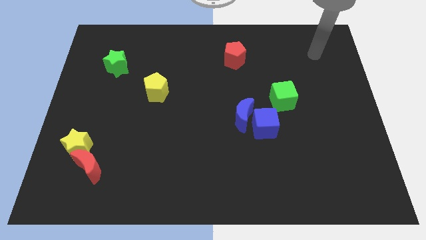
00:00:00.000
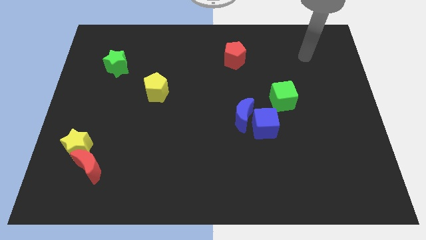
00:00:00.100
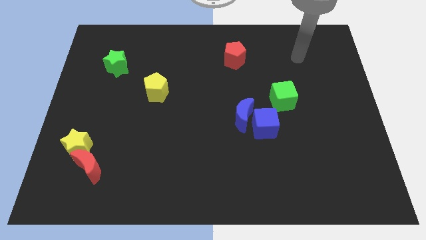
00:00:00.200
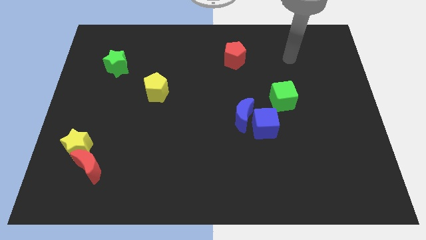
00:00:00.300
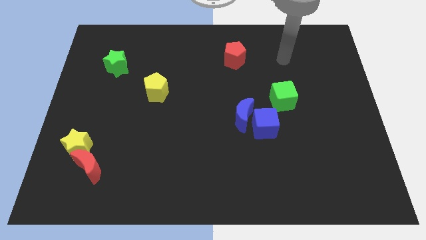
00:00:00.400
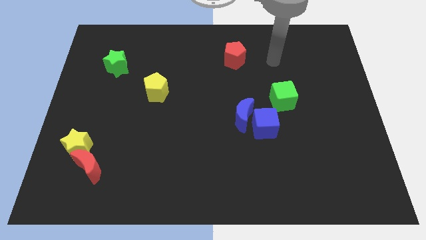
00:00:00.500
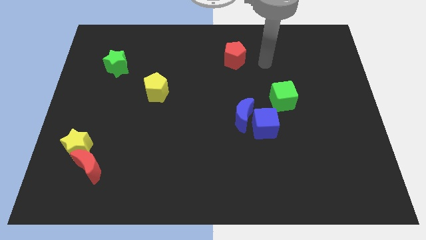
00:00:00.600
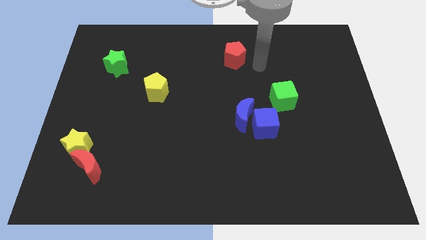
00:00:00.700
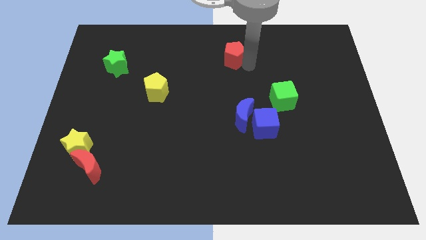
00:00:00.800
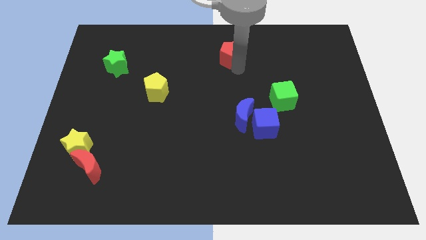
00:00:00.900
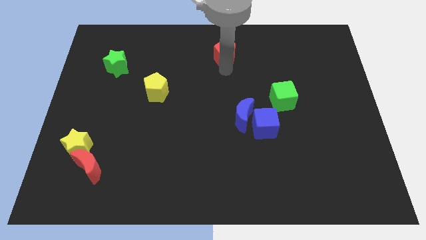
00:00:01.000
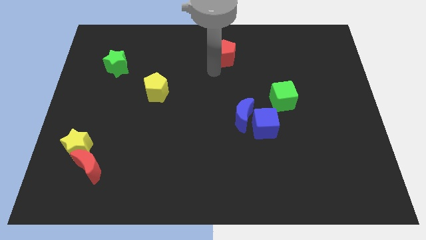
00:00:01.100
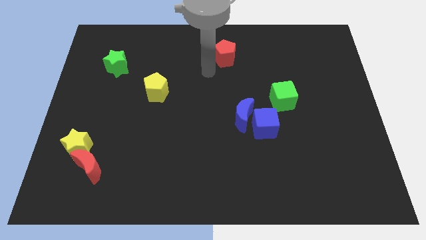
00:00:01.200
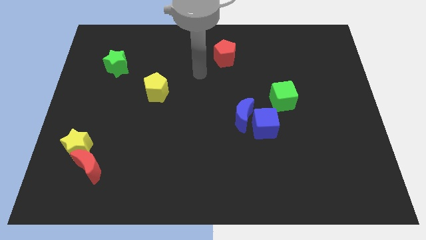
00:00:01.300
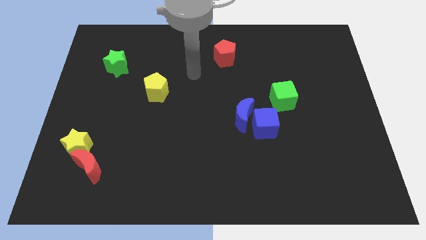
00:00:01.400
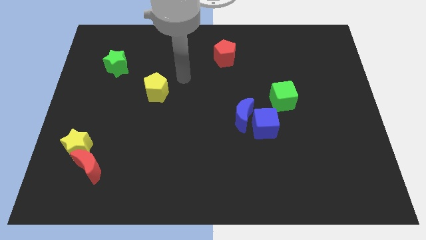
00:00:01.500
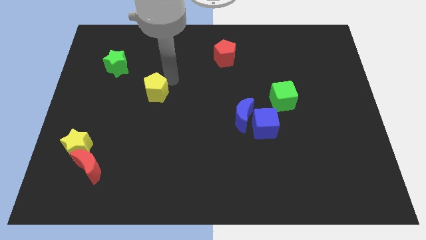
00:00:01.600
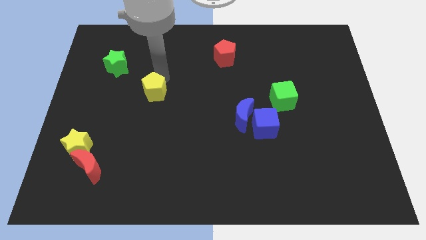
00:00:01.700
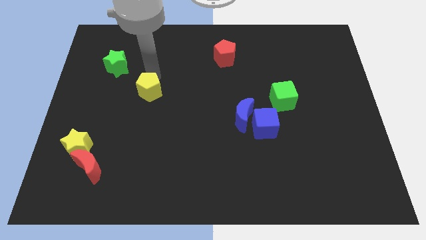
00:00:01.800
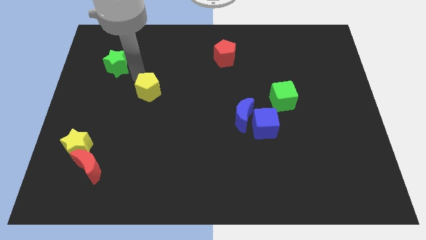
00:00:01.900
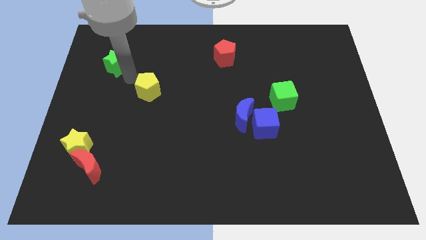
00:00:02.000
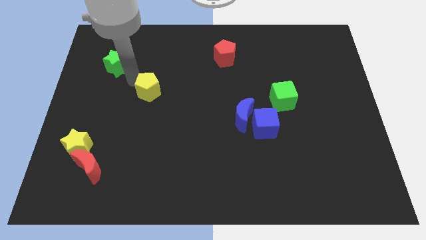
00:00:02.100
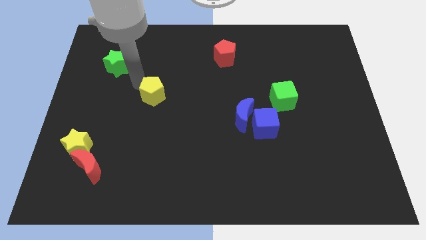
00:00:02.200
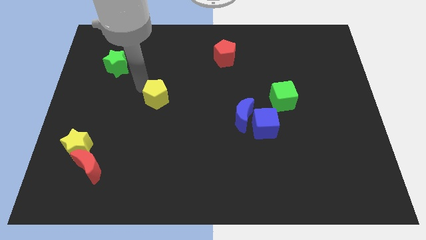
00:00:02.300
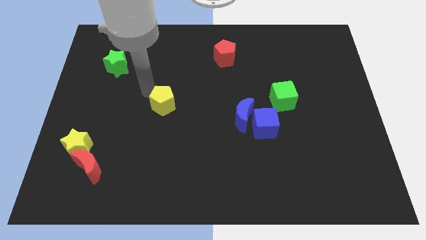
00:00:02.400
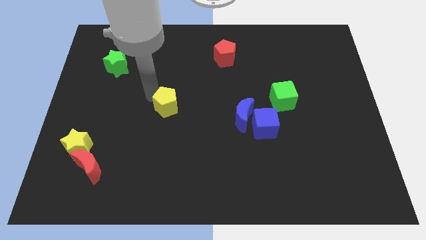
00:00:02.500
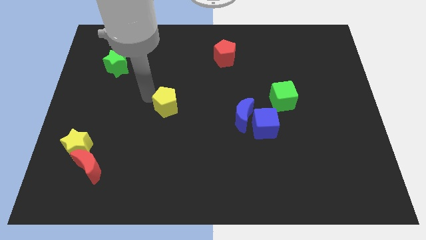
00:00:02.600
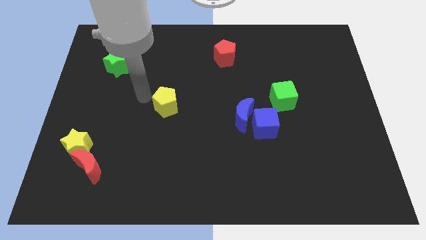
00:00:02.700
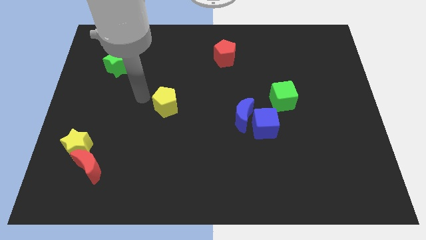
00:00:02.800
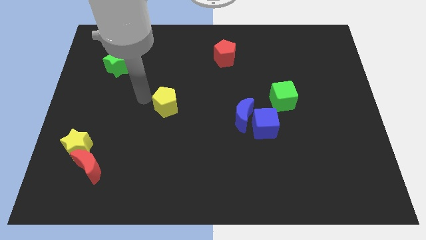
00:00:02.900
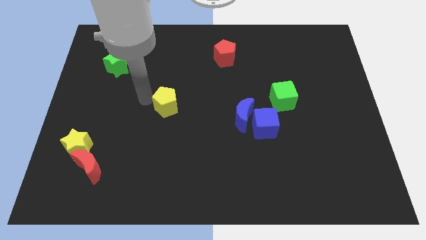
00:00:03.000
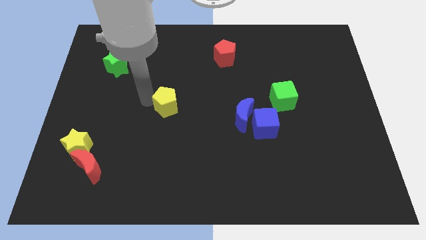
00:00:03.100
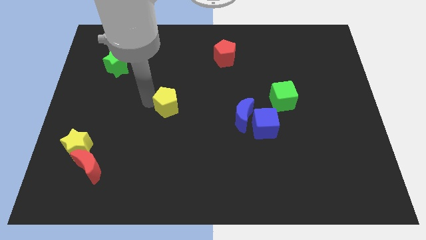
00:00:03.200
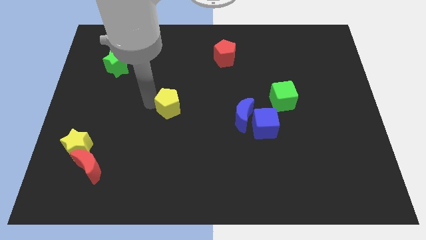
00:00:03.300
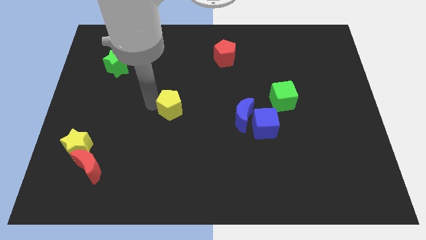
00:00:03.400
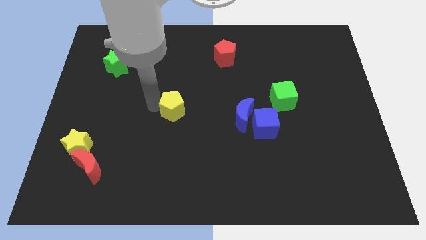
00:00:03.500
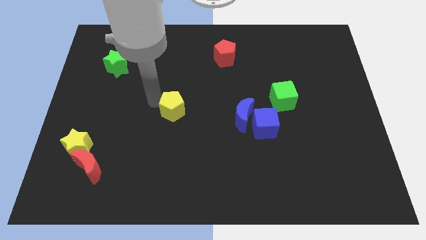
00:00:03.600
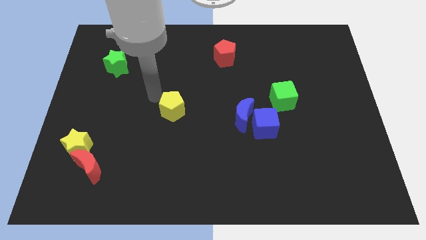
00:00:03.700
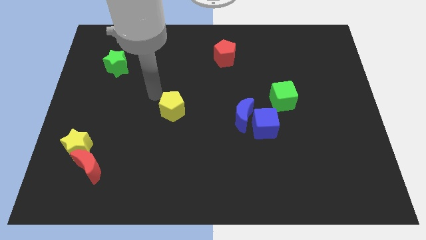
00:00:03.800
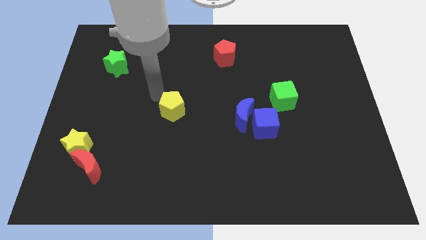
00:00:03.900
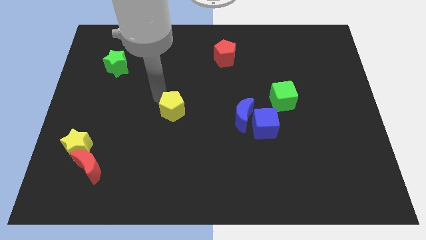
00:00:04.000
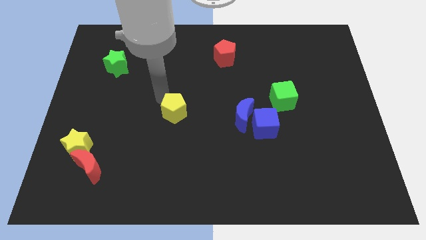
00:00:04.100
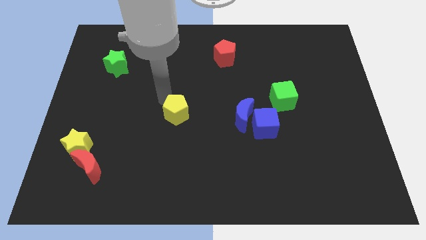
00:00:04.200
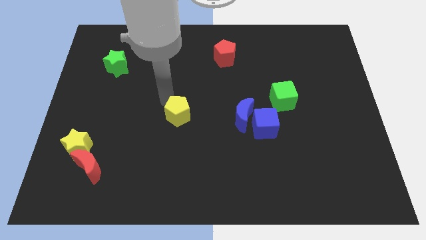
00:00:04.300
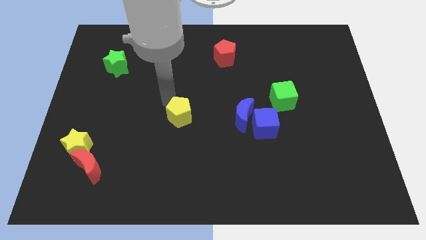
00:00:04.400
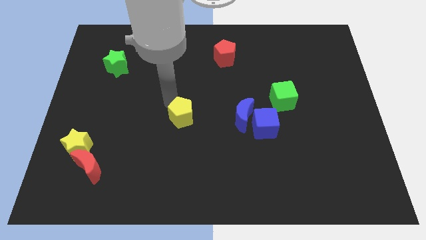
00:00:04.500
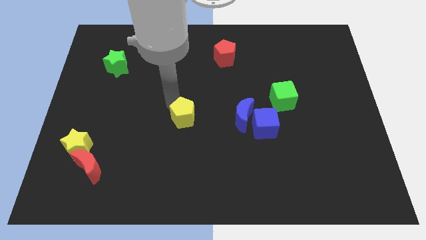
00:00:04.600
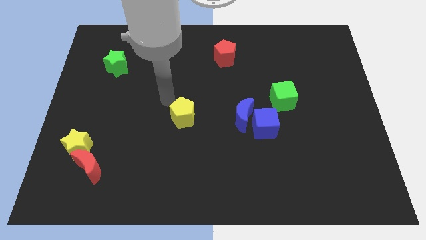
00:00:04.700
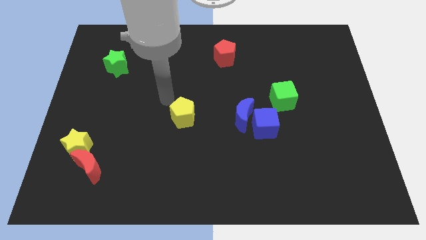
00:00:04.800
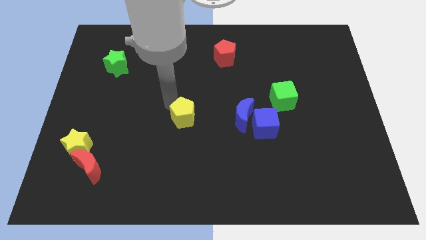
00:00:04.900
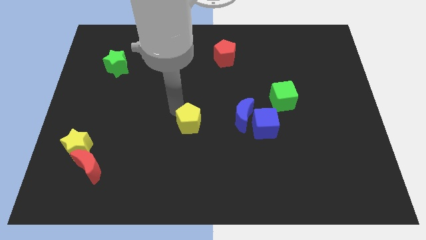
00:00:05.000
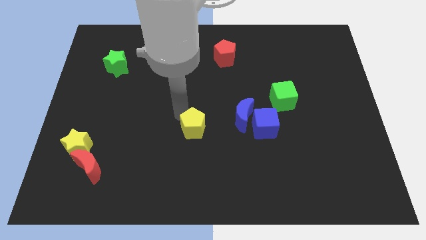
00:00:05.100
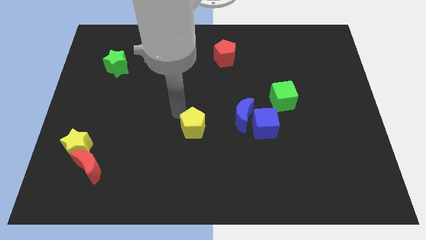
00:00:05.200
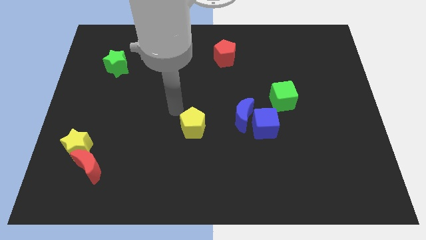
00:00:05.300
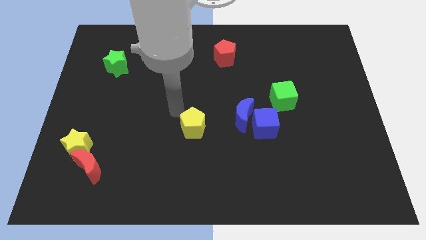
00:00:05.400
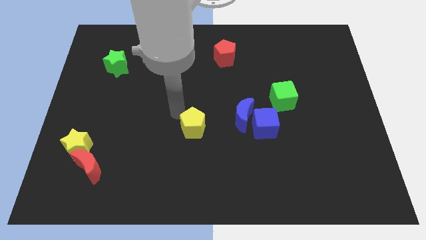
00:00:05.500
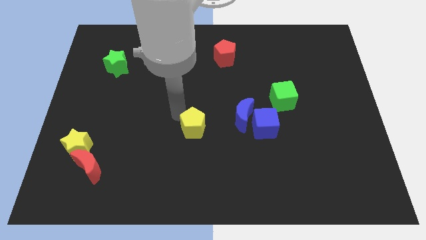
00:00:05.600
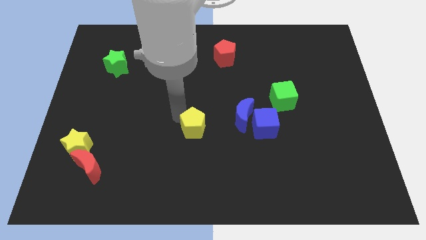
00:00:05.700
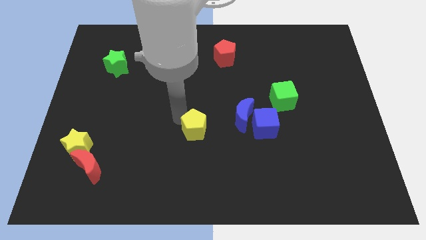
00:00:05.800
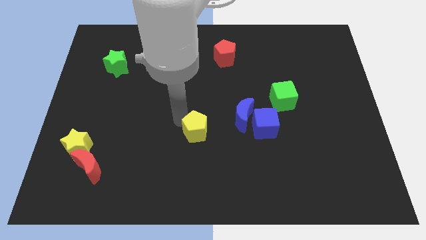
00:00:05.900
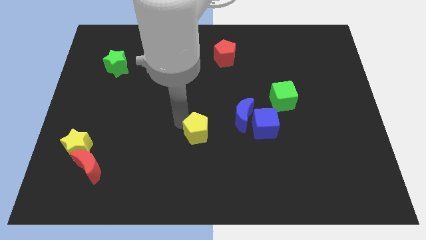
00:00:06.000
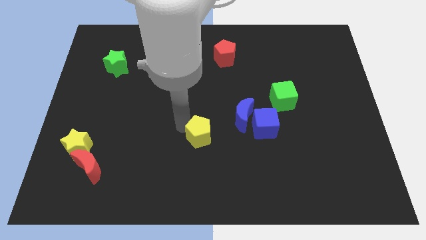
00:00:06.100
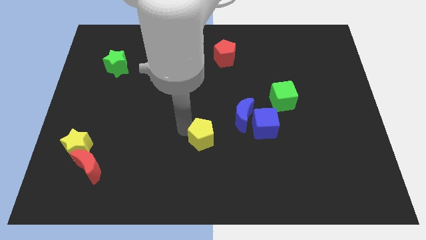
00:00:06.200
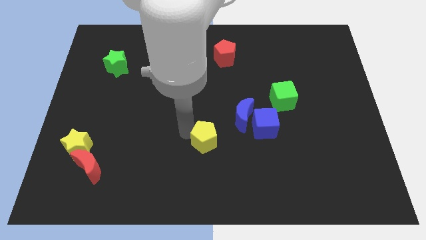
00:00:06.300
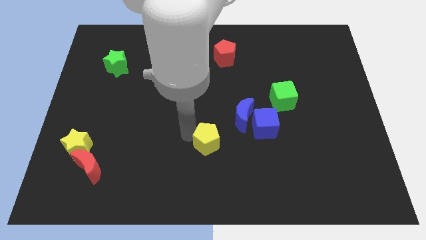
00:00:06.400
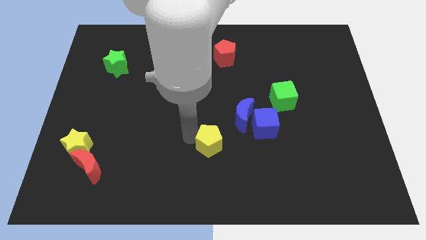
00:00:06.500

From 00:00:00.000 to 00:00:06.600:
slide the yellow pentagon downwards and to the right diagonally

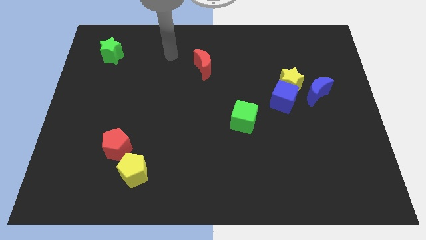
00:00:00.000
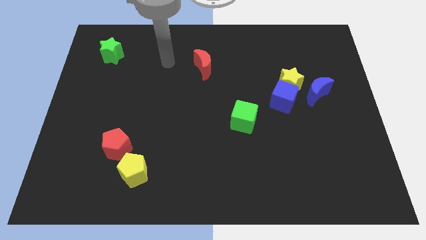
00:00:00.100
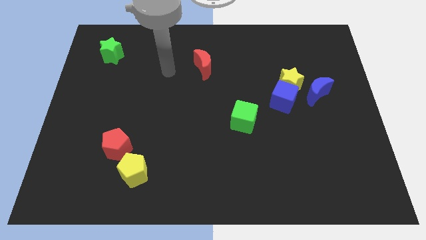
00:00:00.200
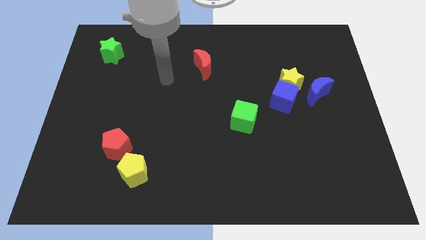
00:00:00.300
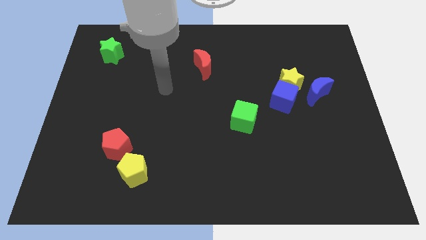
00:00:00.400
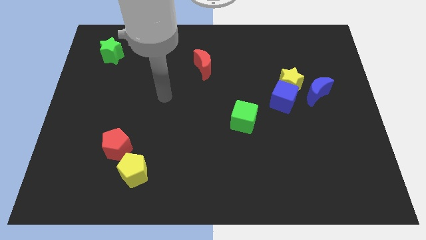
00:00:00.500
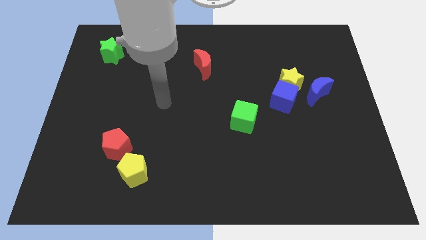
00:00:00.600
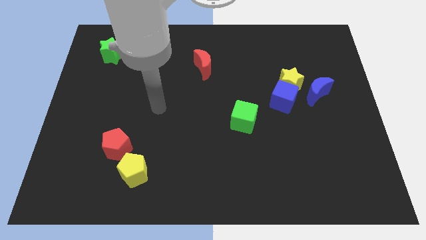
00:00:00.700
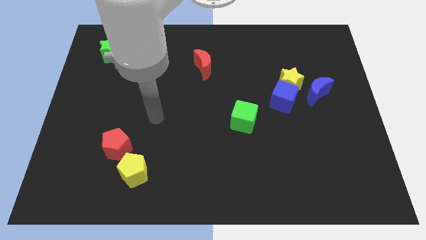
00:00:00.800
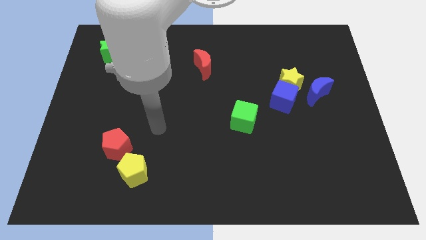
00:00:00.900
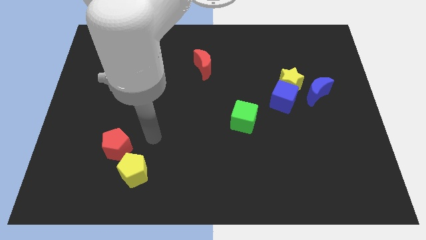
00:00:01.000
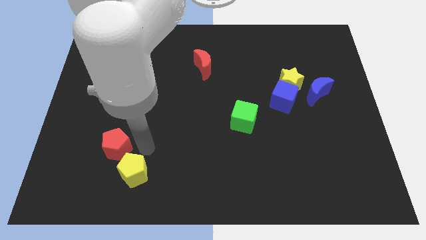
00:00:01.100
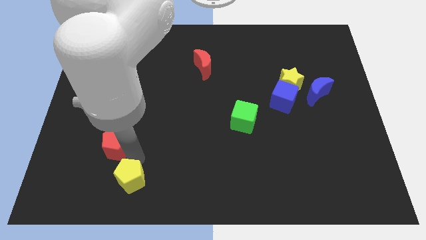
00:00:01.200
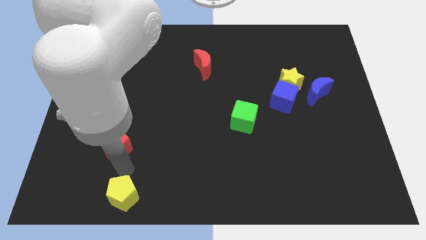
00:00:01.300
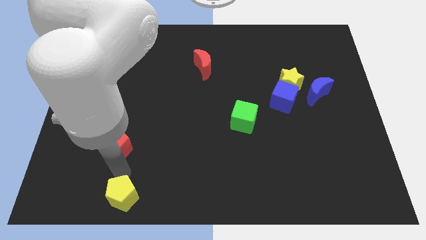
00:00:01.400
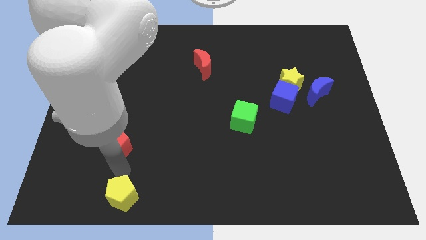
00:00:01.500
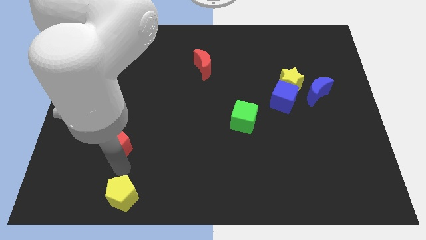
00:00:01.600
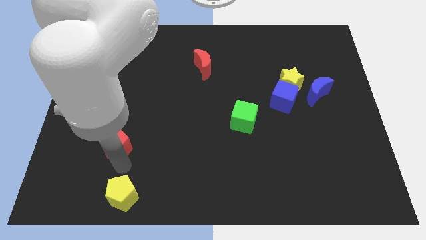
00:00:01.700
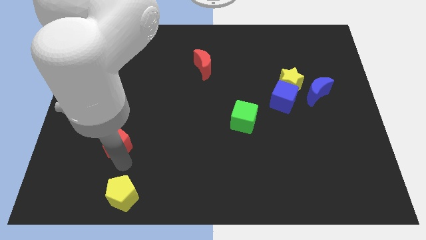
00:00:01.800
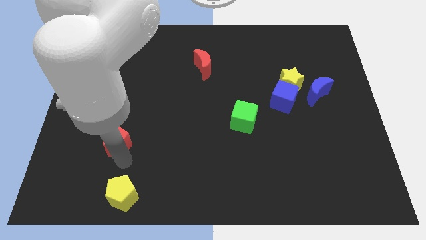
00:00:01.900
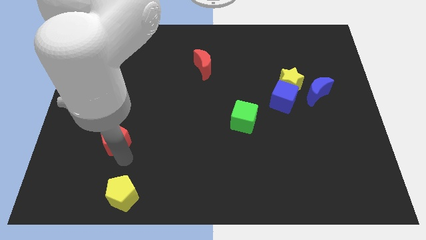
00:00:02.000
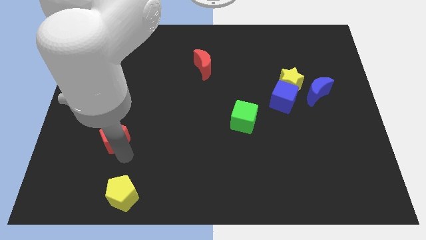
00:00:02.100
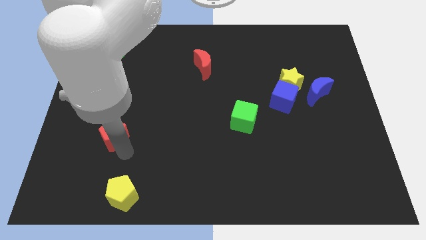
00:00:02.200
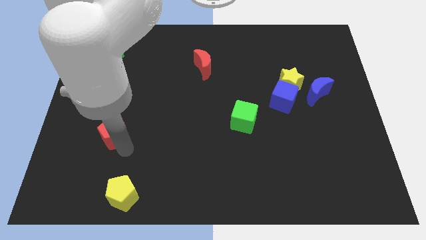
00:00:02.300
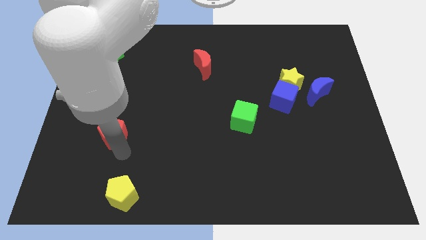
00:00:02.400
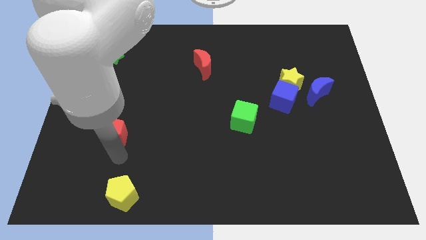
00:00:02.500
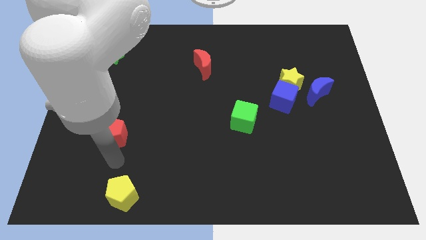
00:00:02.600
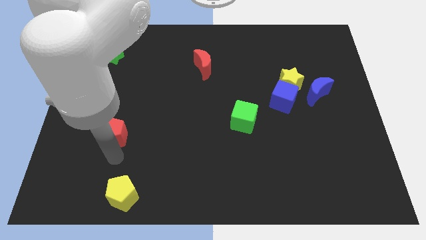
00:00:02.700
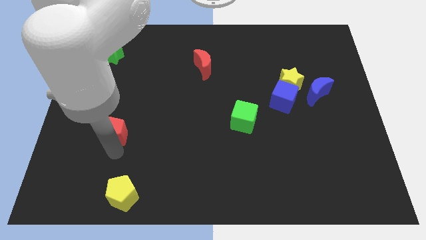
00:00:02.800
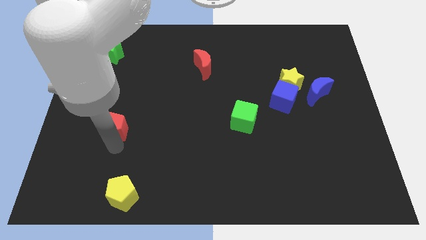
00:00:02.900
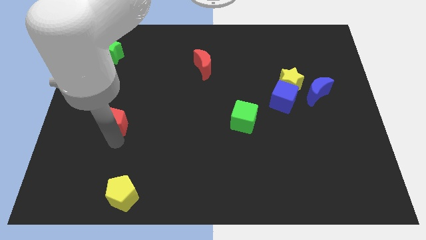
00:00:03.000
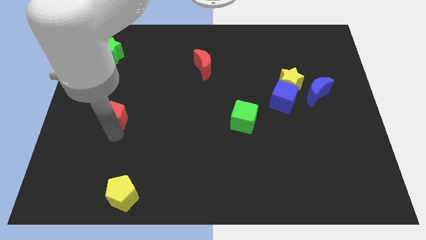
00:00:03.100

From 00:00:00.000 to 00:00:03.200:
move the red pentagon a bit up
